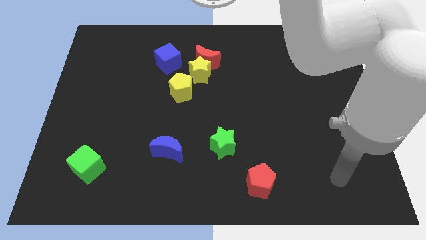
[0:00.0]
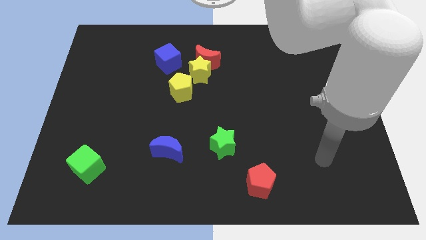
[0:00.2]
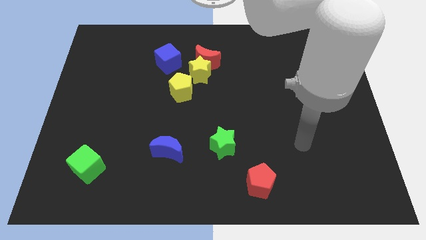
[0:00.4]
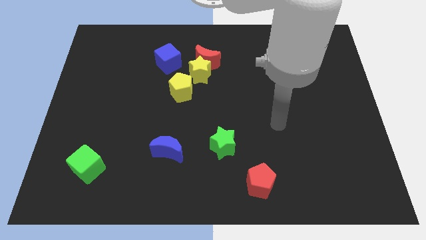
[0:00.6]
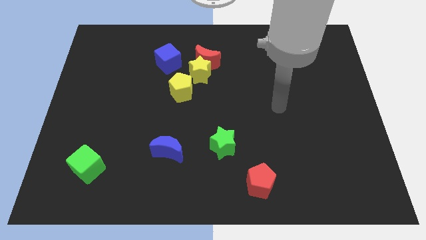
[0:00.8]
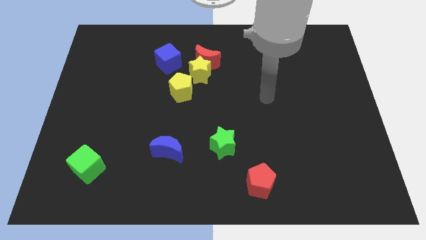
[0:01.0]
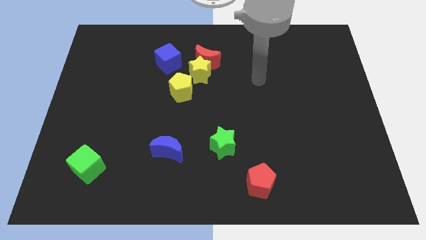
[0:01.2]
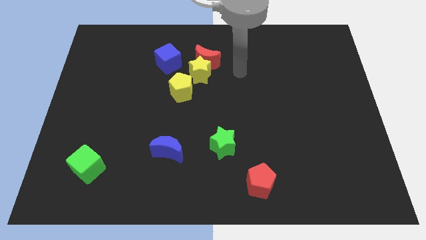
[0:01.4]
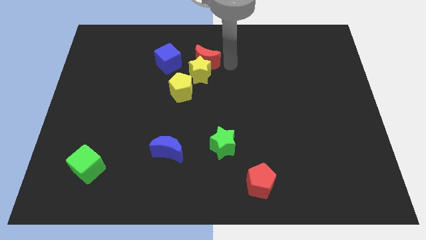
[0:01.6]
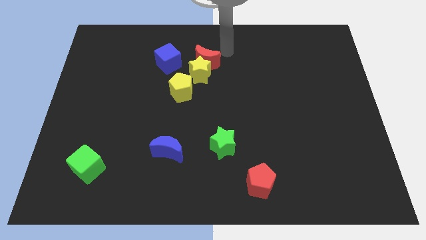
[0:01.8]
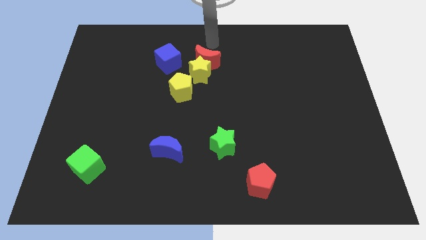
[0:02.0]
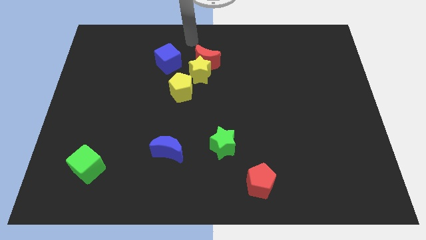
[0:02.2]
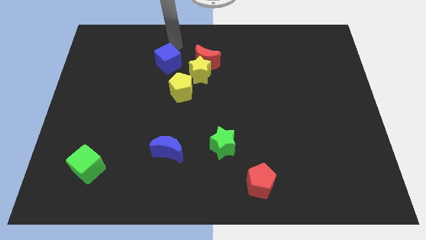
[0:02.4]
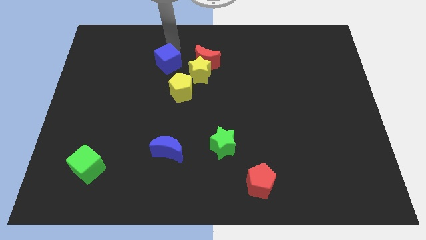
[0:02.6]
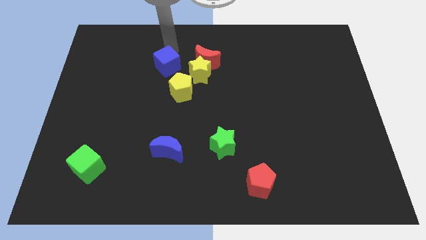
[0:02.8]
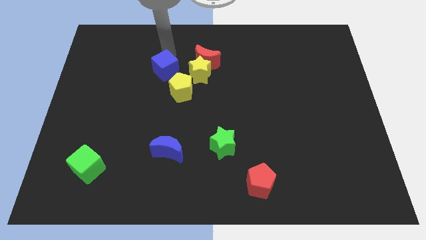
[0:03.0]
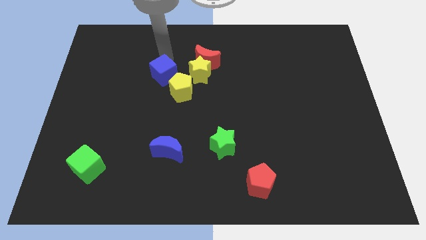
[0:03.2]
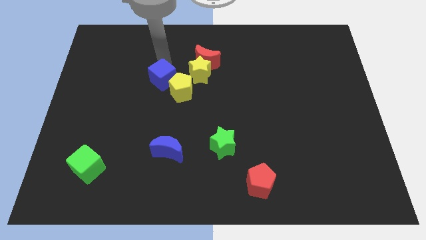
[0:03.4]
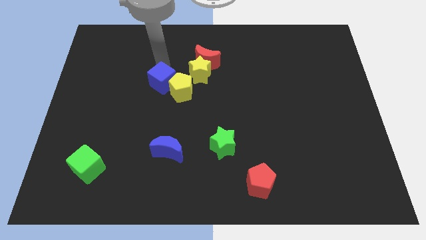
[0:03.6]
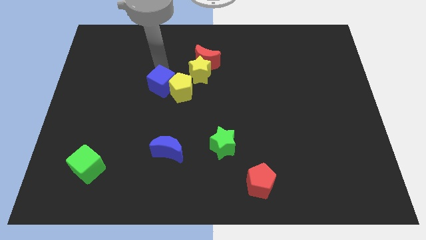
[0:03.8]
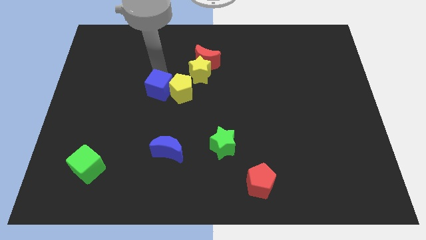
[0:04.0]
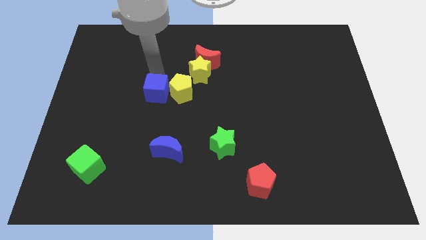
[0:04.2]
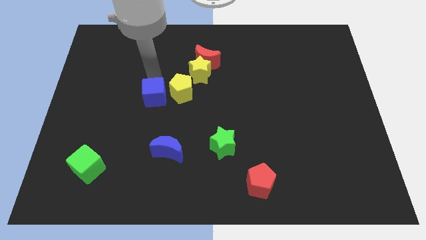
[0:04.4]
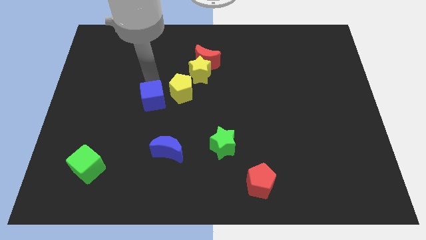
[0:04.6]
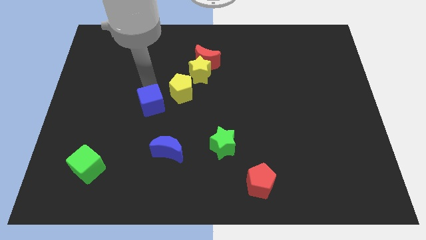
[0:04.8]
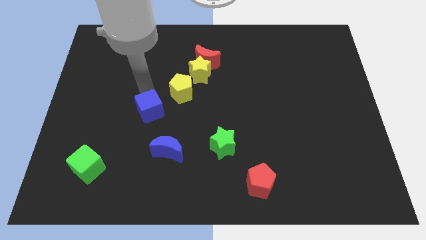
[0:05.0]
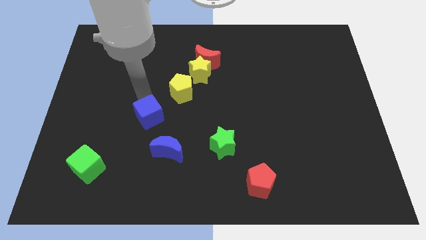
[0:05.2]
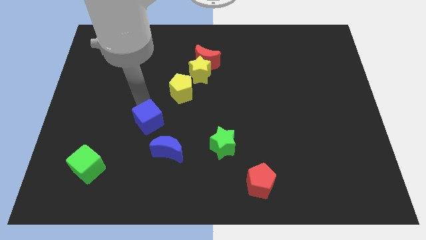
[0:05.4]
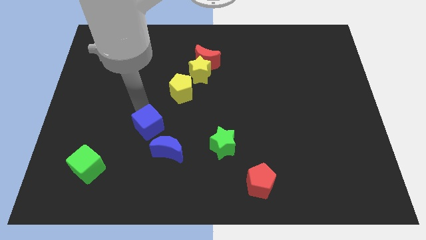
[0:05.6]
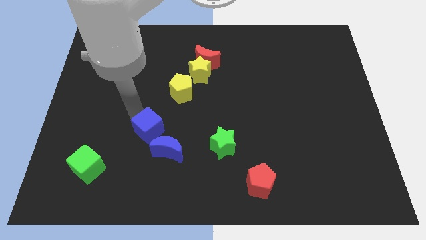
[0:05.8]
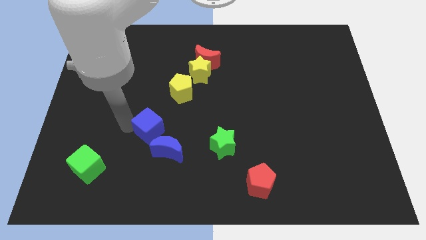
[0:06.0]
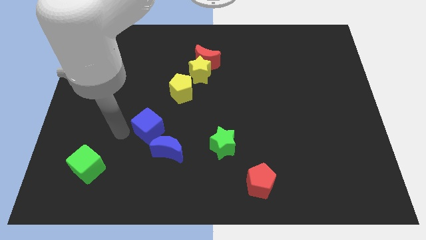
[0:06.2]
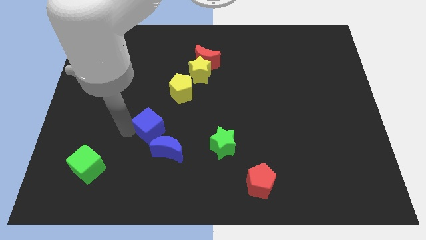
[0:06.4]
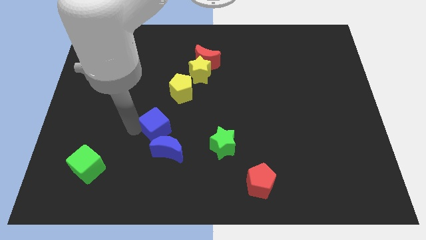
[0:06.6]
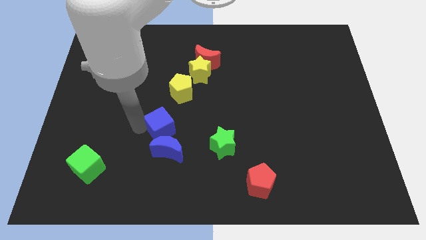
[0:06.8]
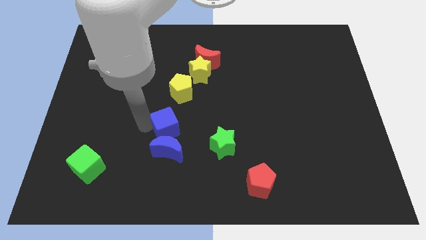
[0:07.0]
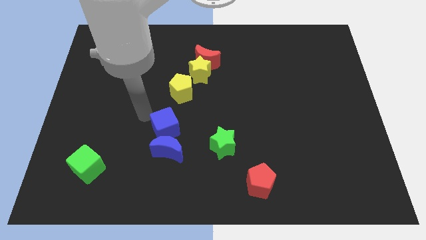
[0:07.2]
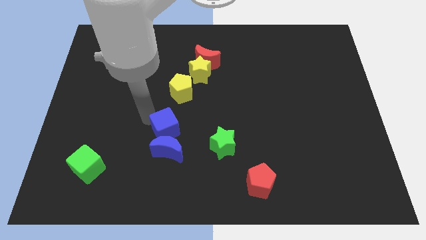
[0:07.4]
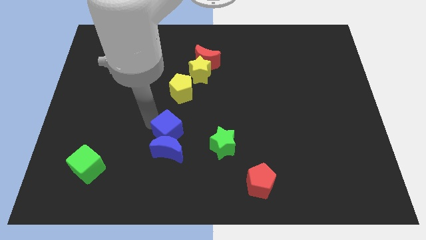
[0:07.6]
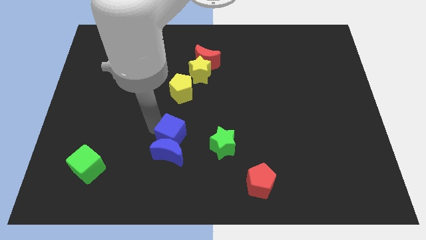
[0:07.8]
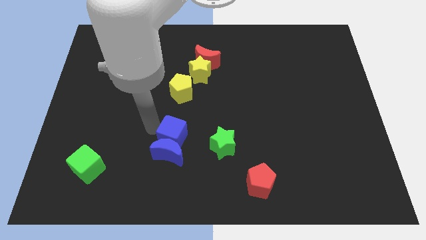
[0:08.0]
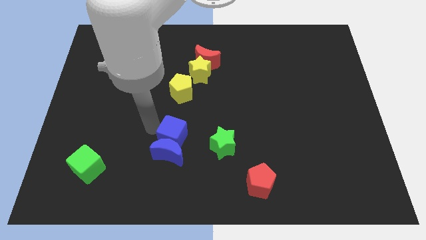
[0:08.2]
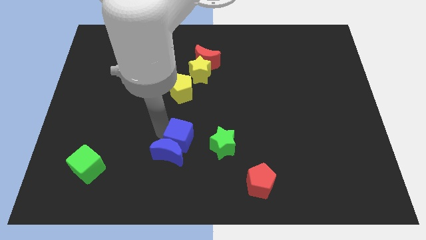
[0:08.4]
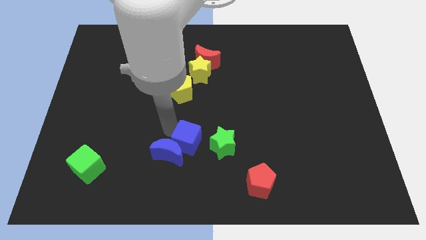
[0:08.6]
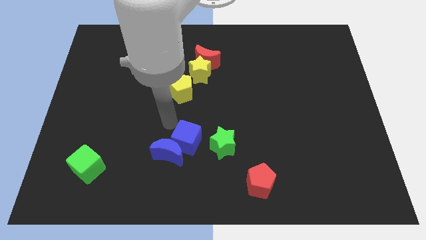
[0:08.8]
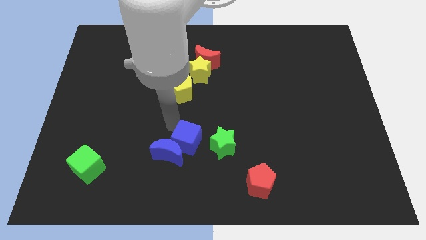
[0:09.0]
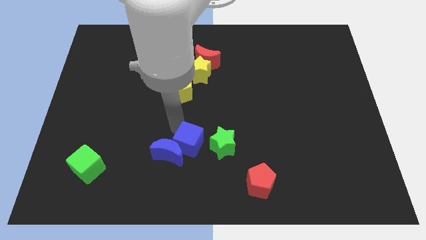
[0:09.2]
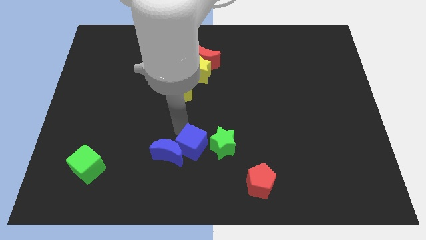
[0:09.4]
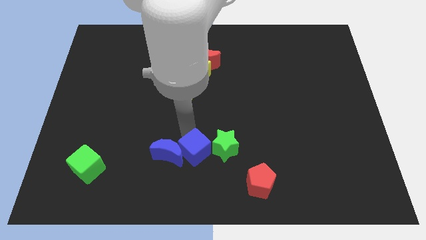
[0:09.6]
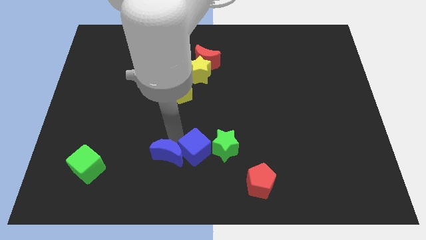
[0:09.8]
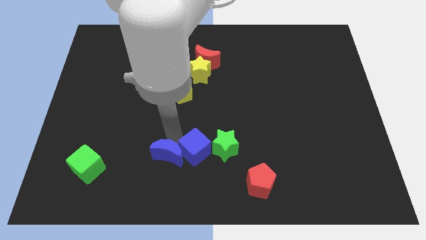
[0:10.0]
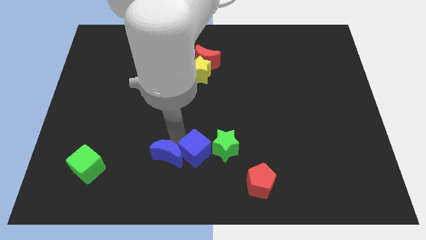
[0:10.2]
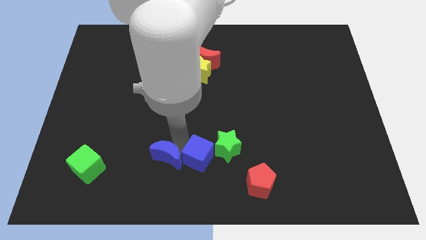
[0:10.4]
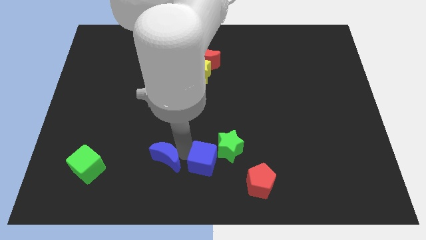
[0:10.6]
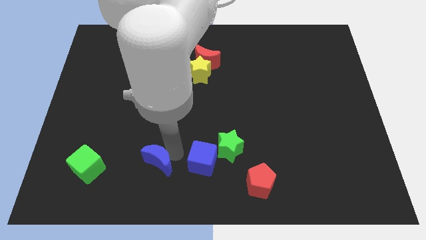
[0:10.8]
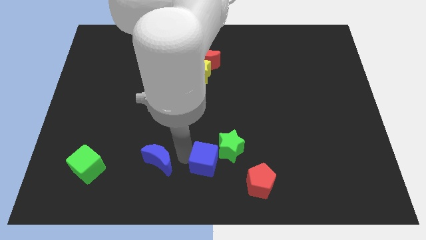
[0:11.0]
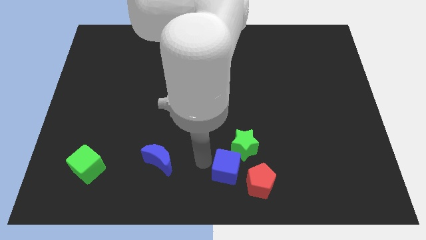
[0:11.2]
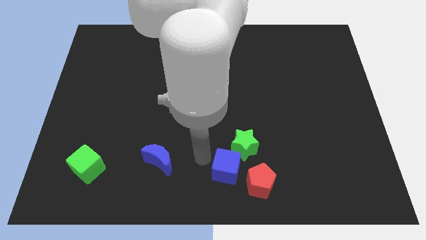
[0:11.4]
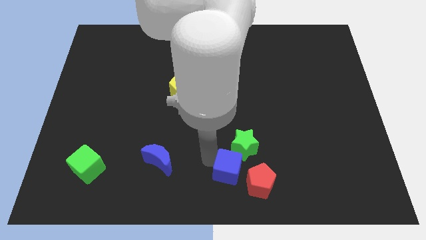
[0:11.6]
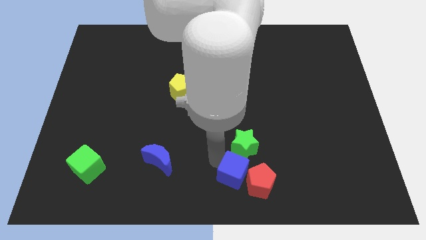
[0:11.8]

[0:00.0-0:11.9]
slide the blue cube next to the red pentagon

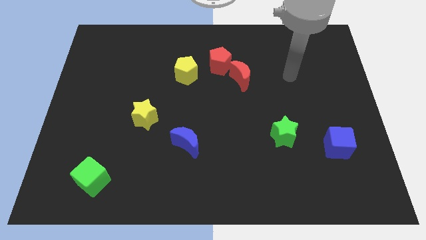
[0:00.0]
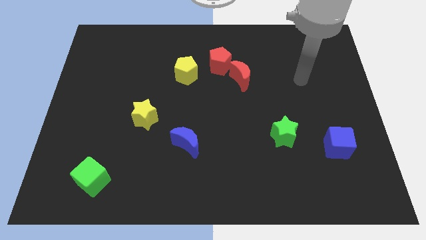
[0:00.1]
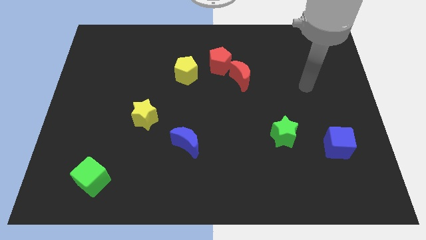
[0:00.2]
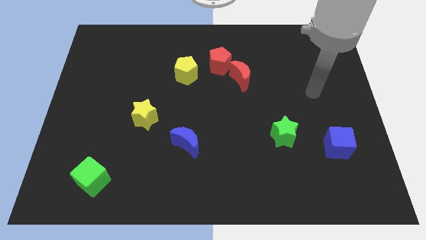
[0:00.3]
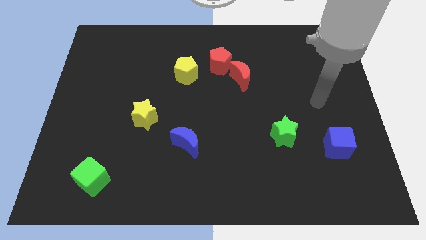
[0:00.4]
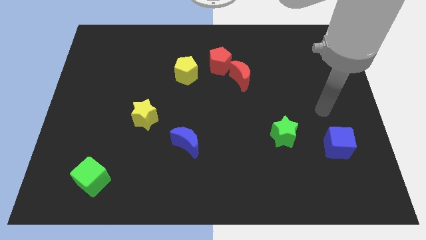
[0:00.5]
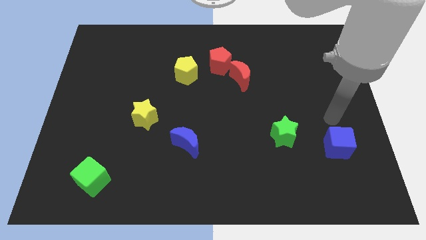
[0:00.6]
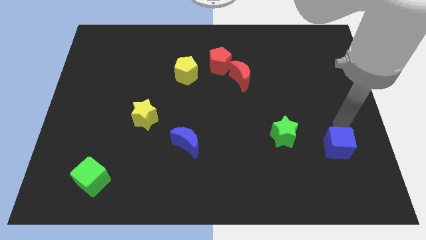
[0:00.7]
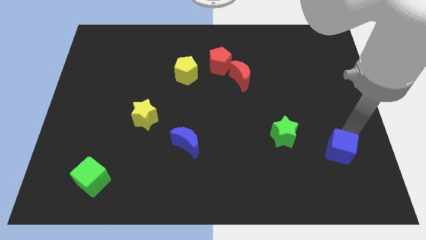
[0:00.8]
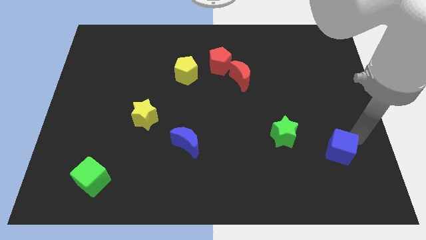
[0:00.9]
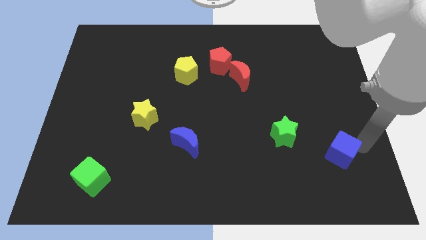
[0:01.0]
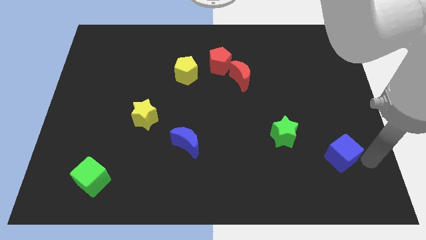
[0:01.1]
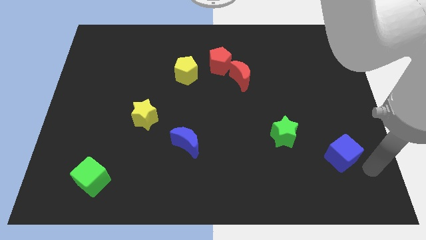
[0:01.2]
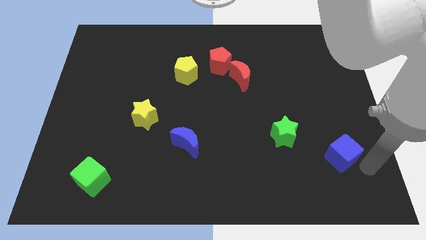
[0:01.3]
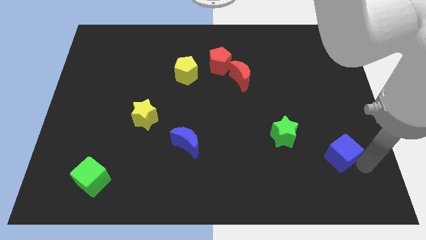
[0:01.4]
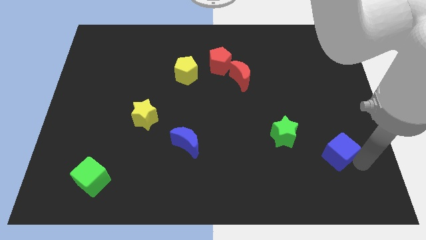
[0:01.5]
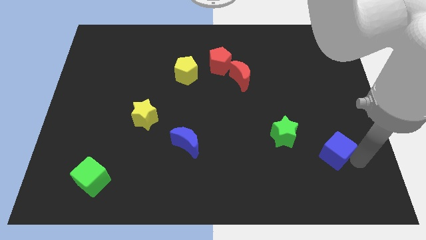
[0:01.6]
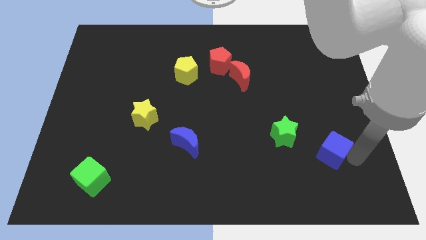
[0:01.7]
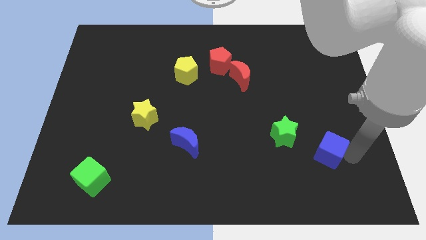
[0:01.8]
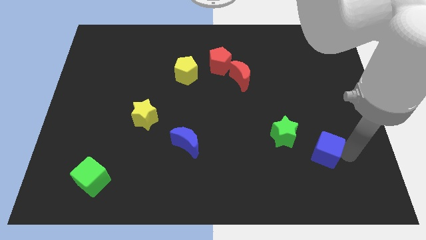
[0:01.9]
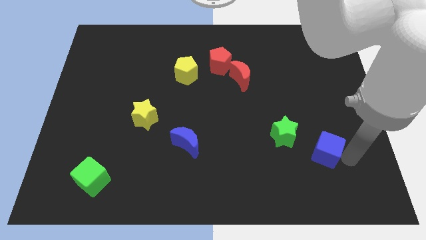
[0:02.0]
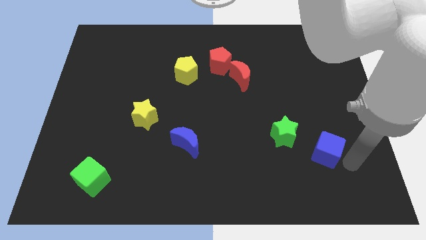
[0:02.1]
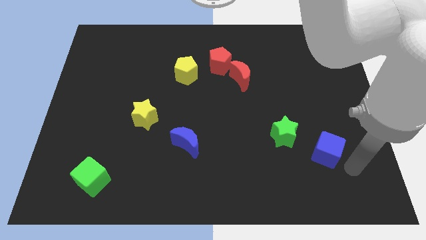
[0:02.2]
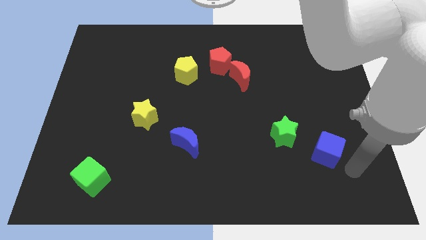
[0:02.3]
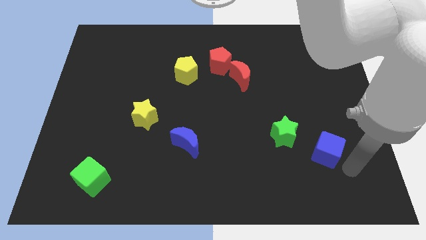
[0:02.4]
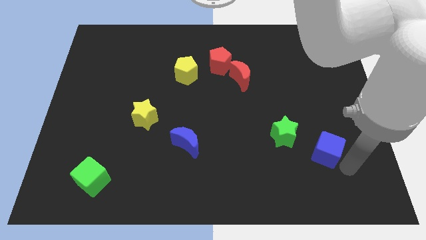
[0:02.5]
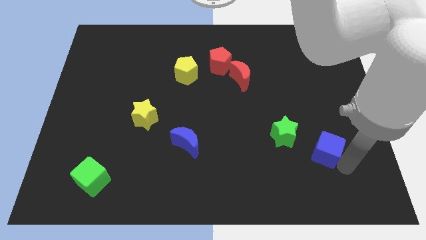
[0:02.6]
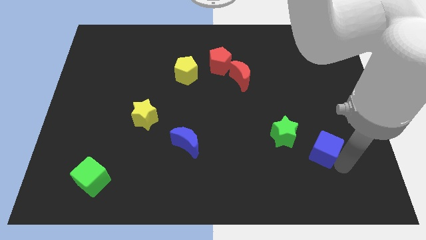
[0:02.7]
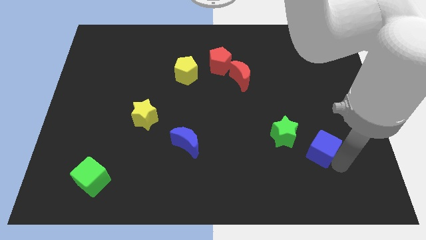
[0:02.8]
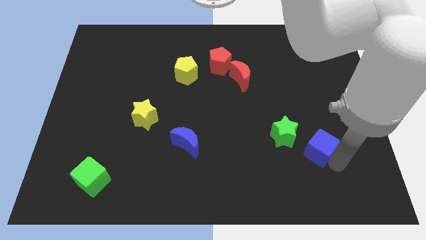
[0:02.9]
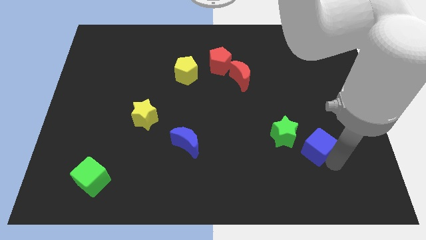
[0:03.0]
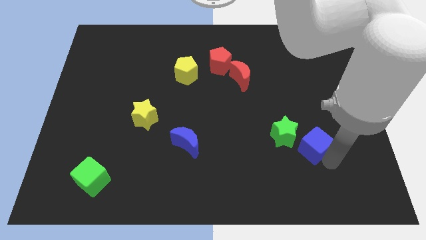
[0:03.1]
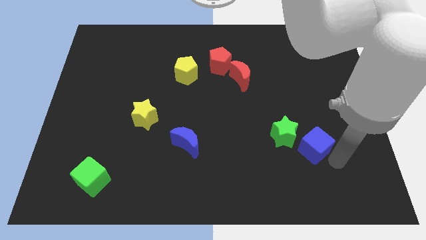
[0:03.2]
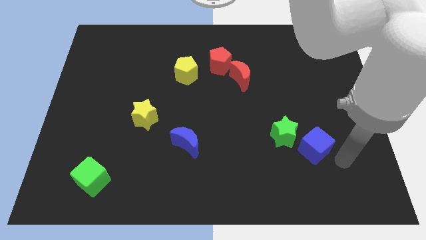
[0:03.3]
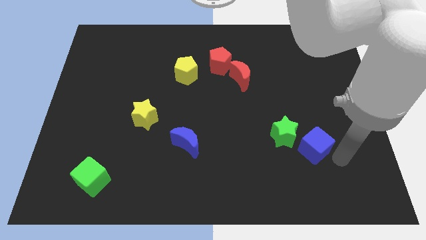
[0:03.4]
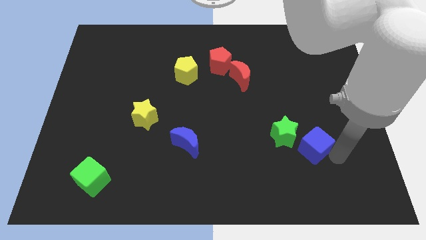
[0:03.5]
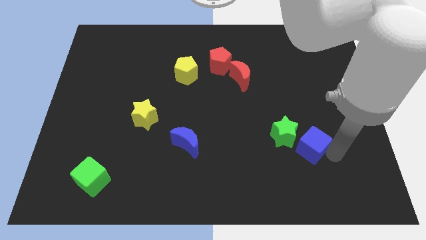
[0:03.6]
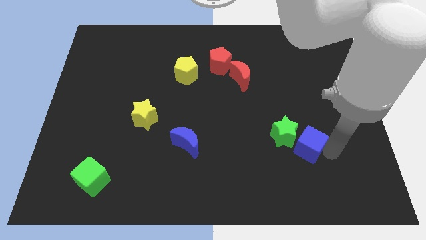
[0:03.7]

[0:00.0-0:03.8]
push the blue cube to the green star
